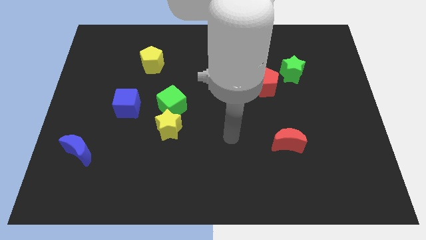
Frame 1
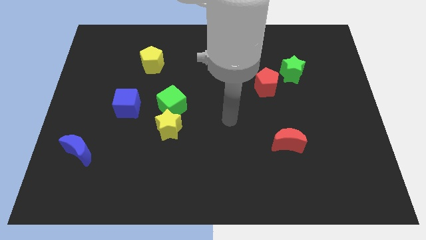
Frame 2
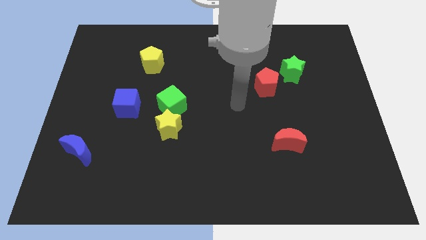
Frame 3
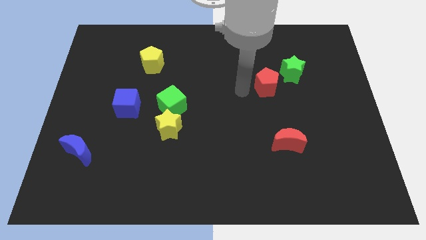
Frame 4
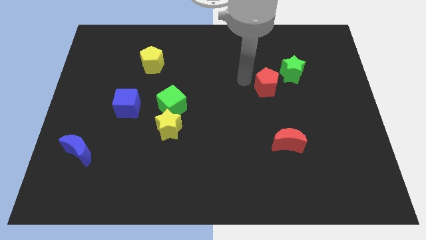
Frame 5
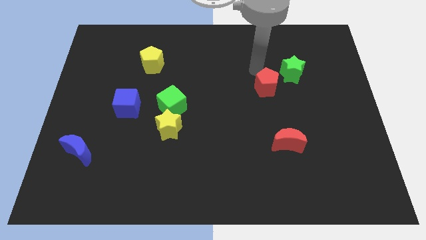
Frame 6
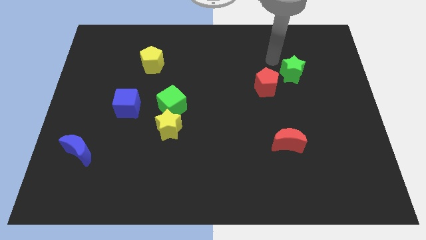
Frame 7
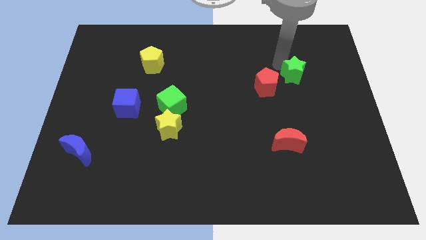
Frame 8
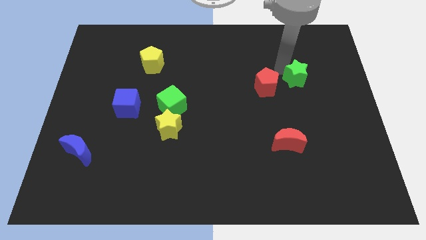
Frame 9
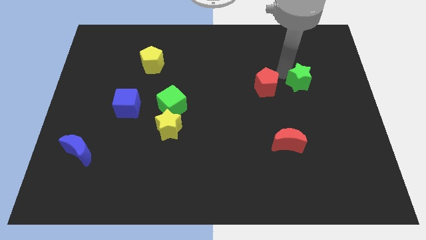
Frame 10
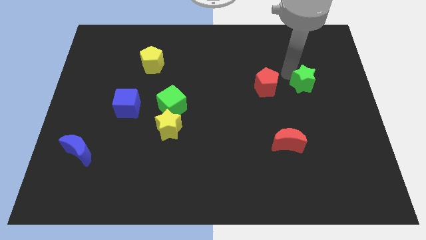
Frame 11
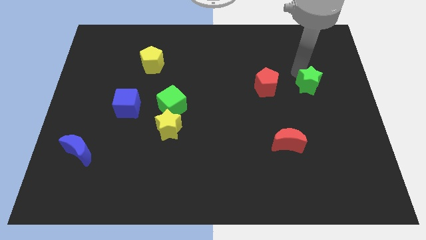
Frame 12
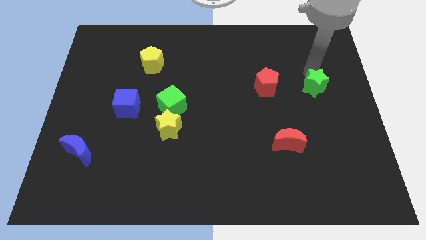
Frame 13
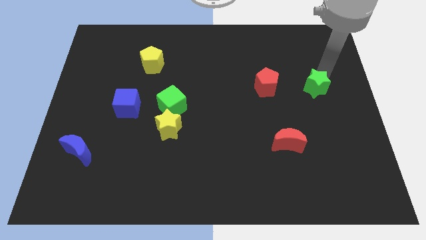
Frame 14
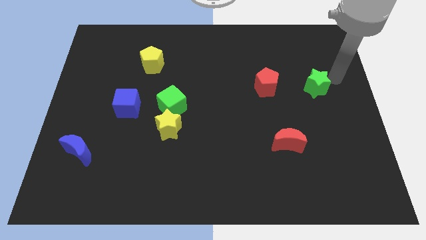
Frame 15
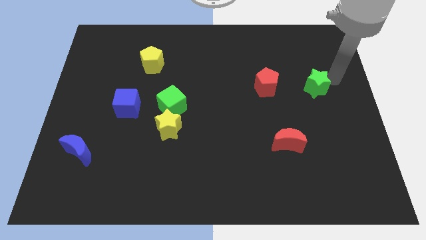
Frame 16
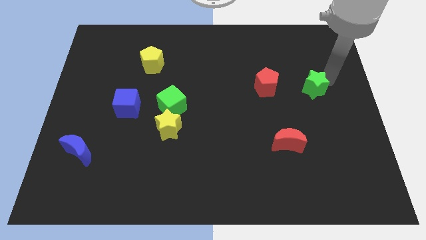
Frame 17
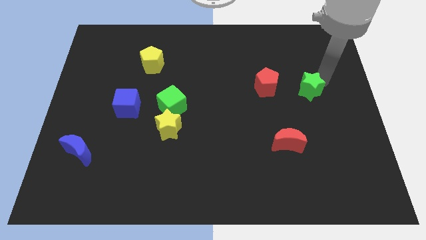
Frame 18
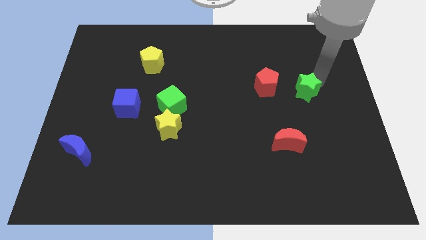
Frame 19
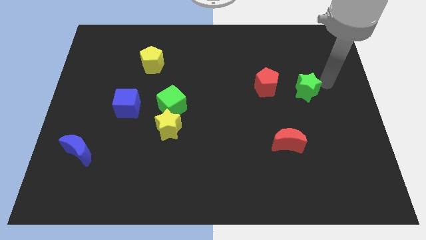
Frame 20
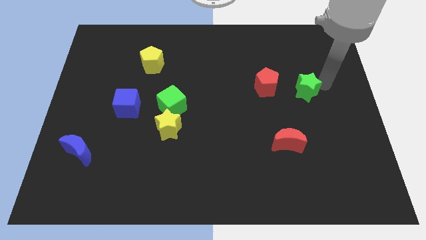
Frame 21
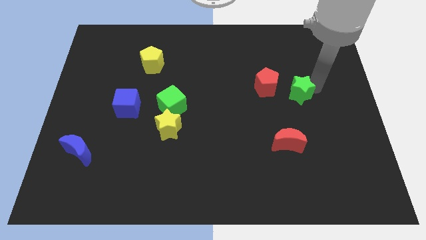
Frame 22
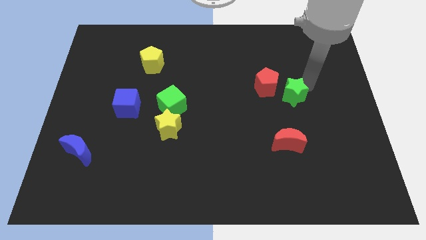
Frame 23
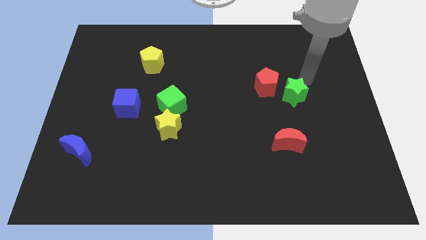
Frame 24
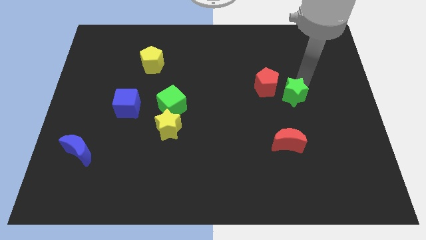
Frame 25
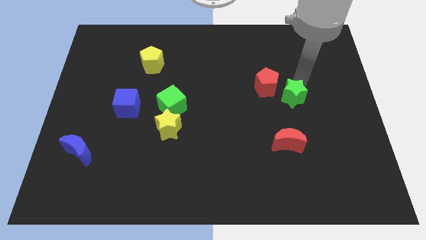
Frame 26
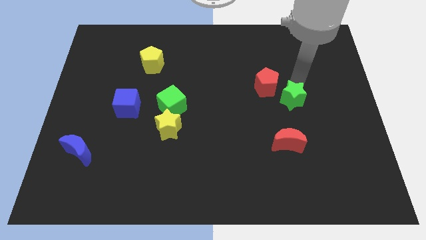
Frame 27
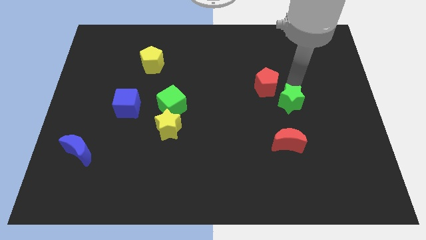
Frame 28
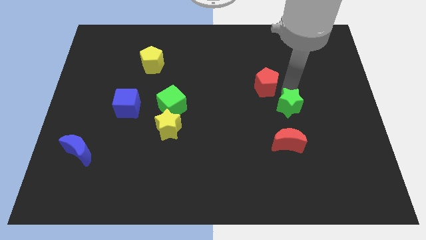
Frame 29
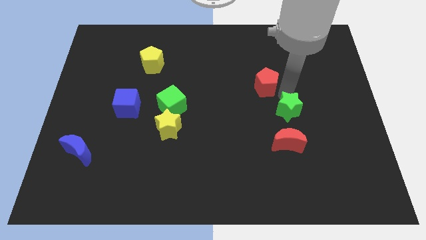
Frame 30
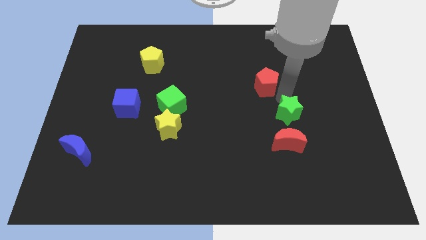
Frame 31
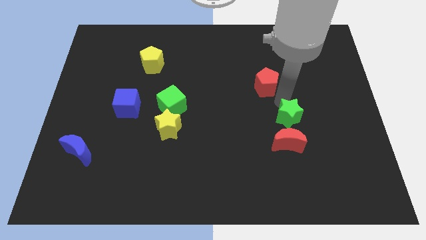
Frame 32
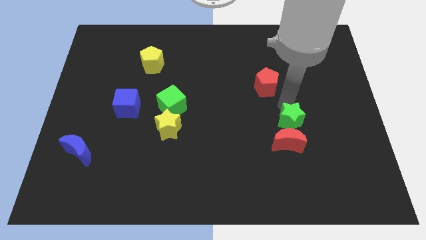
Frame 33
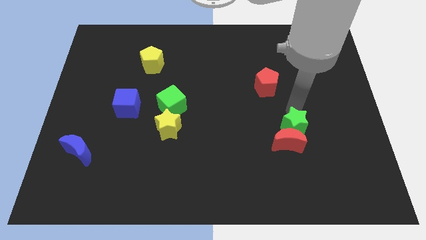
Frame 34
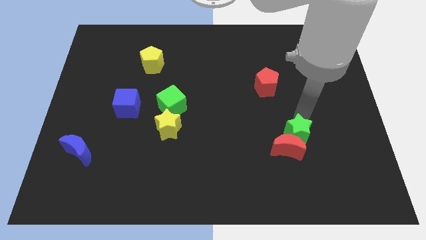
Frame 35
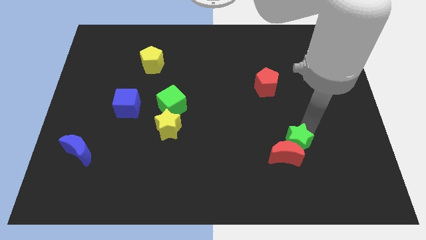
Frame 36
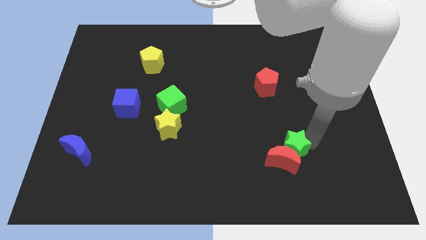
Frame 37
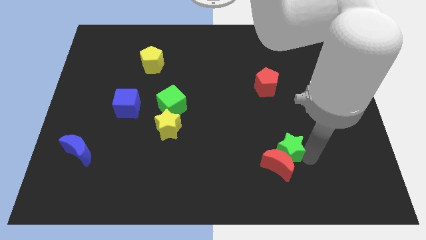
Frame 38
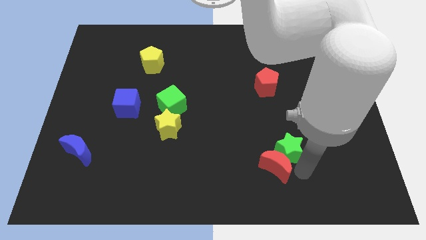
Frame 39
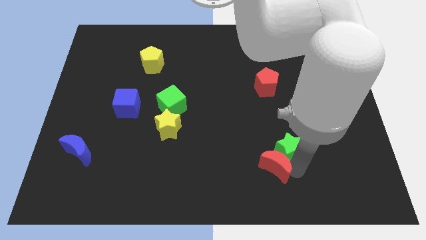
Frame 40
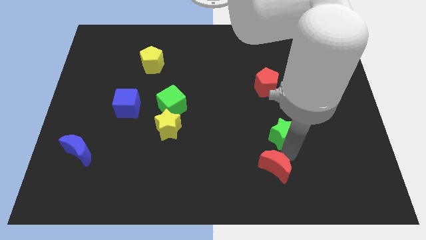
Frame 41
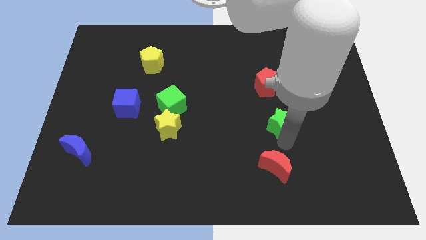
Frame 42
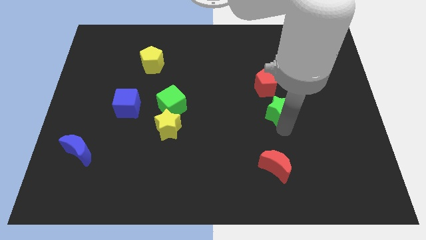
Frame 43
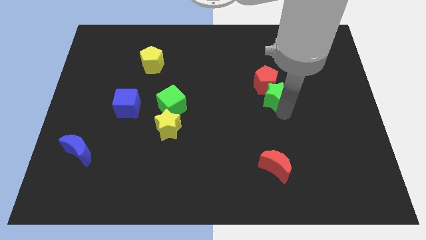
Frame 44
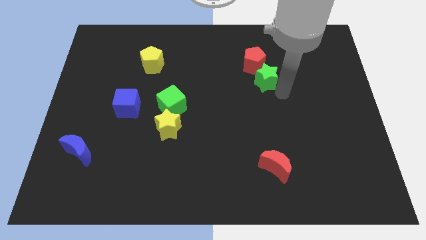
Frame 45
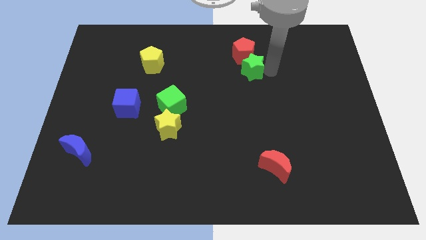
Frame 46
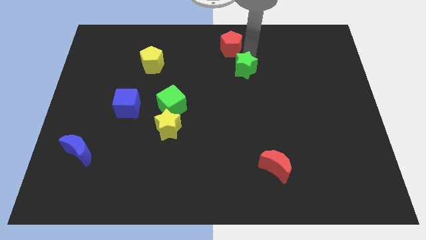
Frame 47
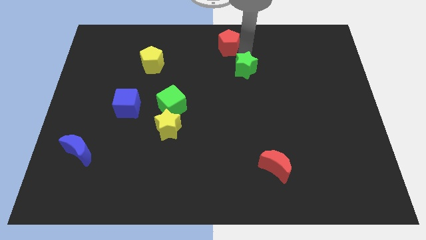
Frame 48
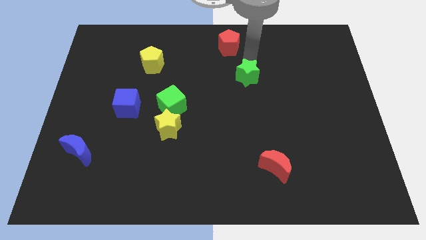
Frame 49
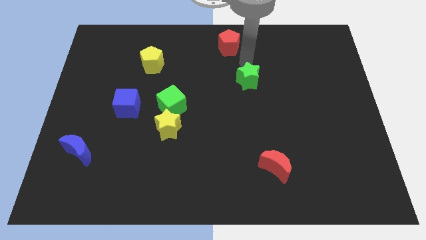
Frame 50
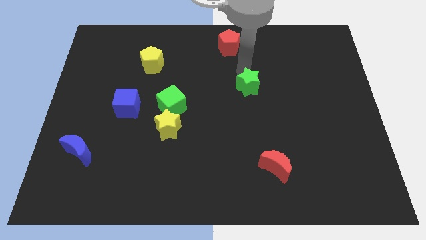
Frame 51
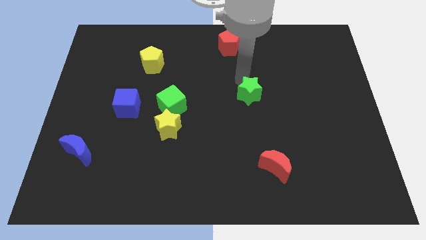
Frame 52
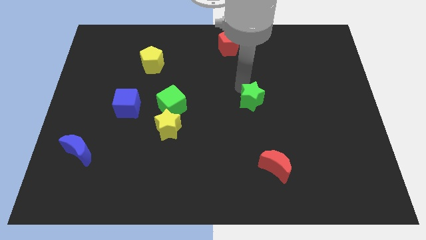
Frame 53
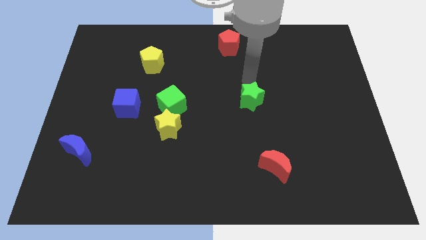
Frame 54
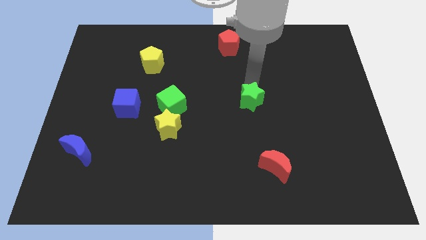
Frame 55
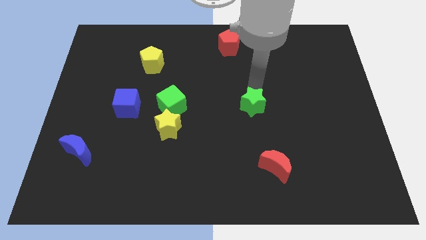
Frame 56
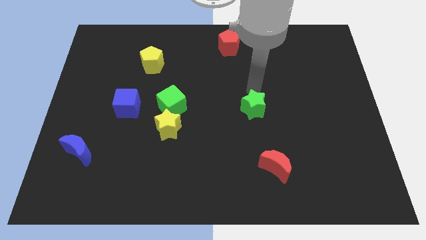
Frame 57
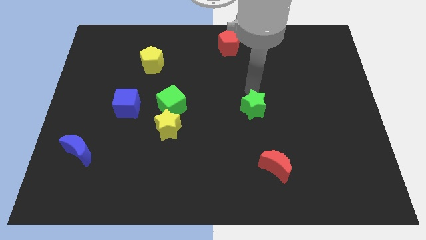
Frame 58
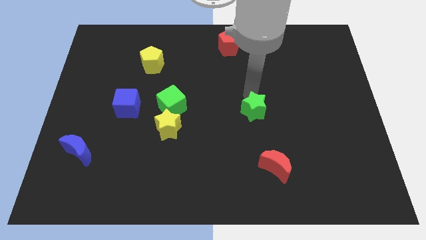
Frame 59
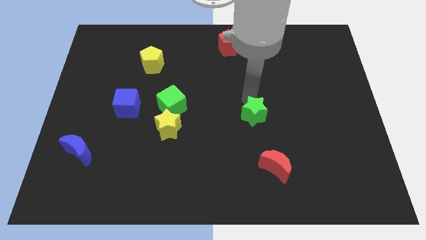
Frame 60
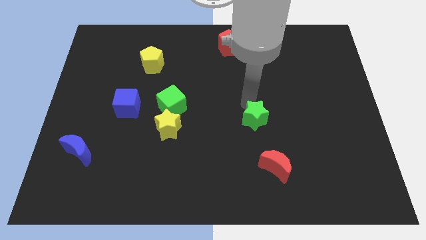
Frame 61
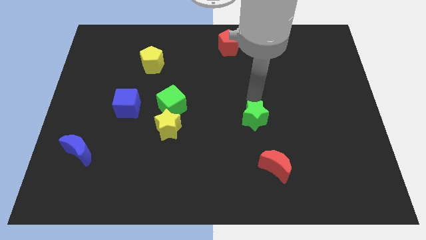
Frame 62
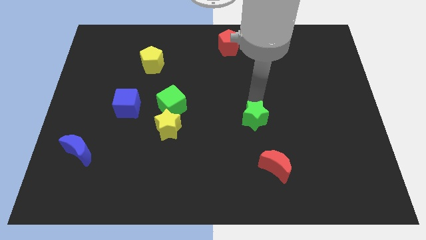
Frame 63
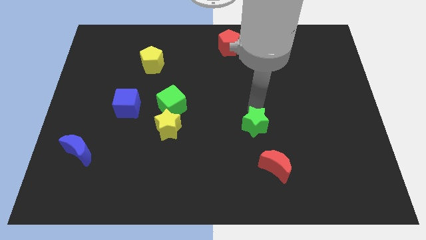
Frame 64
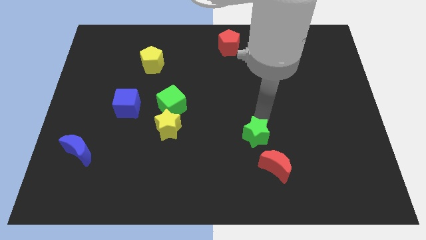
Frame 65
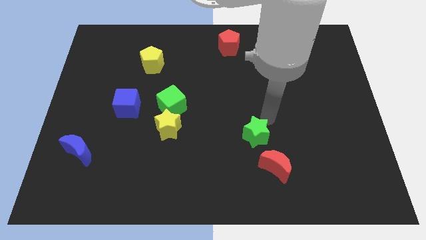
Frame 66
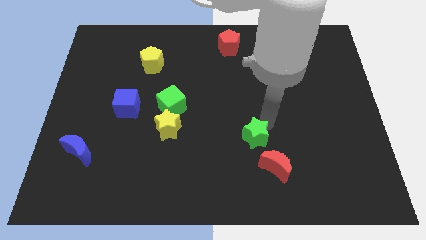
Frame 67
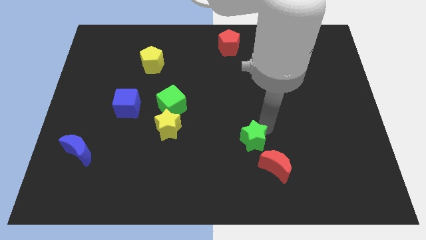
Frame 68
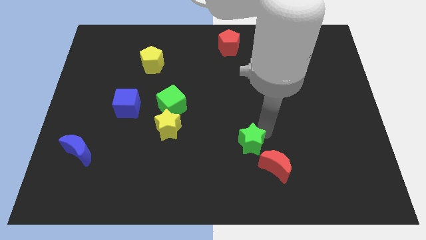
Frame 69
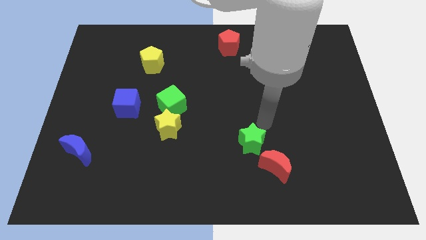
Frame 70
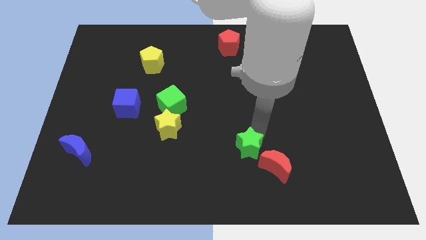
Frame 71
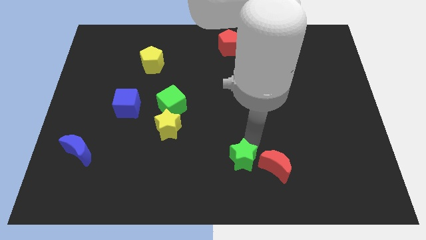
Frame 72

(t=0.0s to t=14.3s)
put the green star to the bottom side

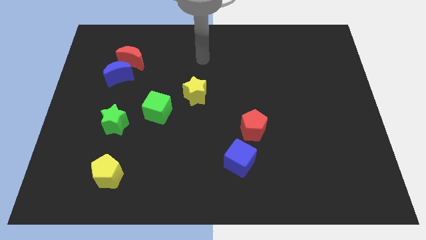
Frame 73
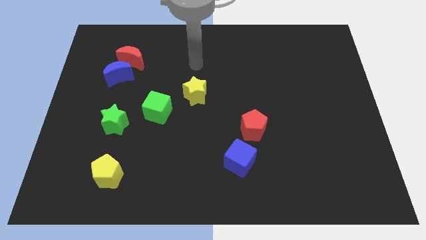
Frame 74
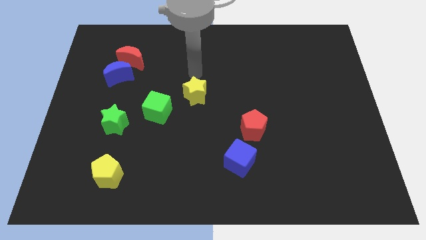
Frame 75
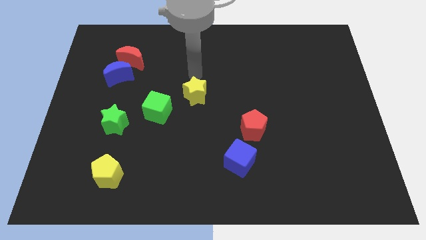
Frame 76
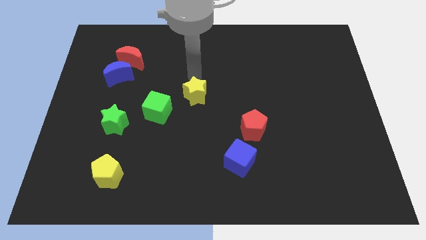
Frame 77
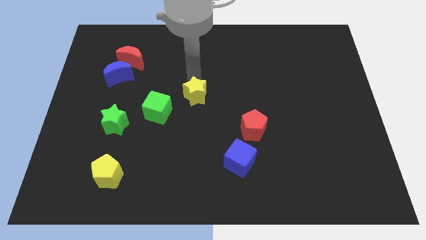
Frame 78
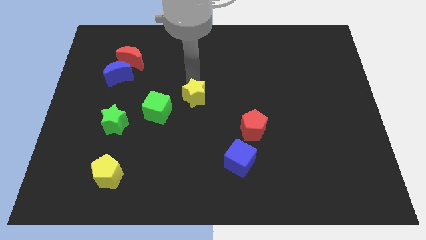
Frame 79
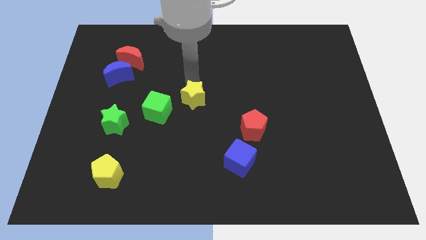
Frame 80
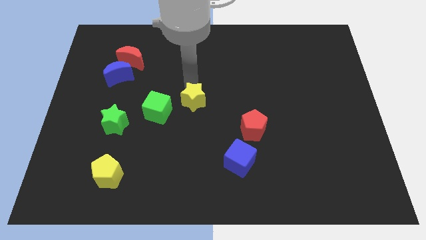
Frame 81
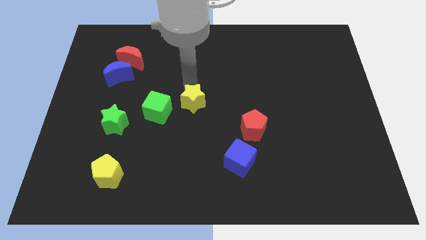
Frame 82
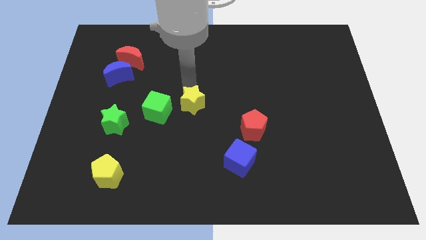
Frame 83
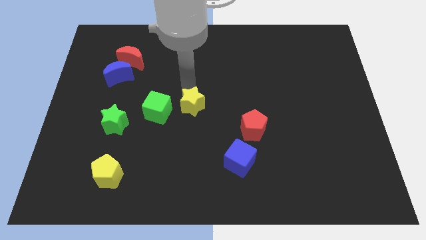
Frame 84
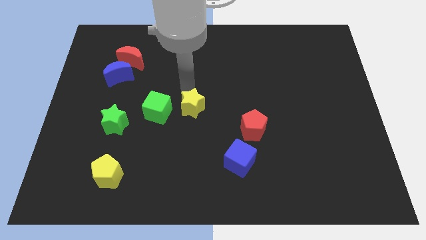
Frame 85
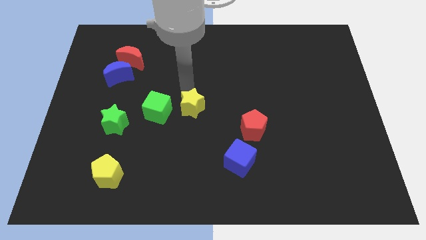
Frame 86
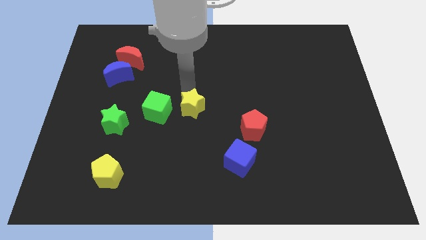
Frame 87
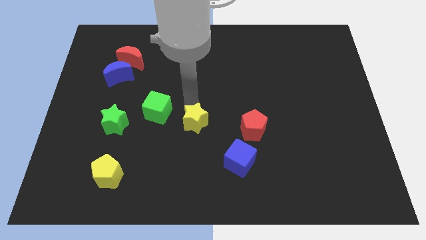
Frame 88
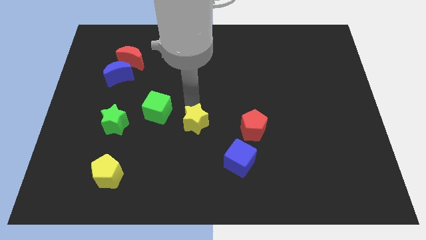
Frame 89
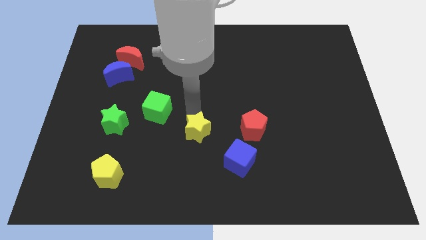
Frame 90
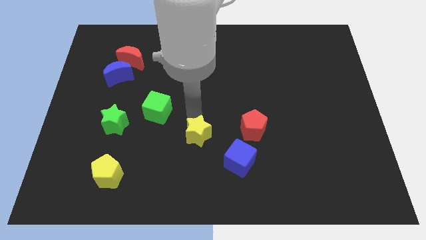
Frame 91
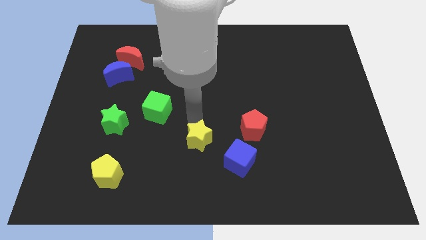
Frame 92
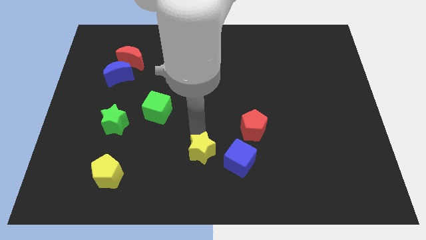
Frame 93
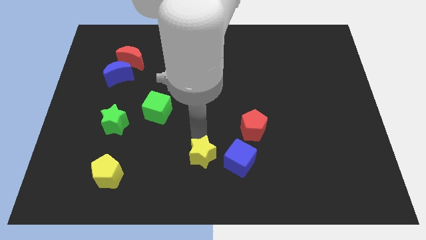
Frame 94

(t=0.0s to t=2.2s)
put the yellow star to the bottom side
